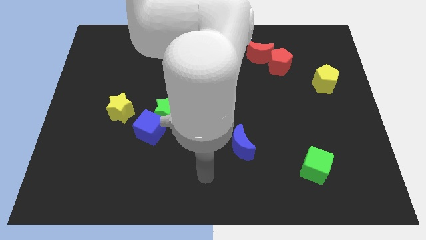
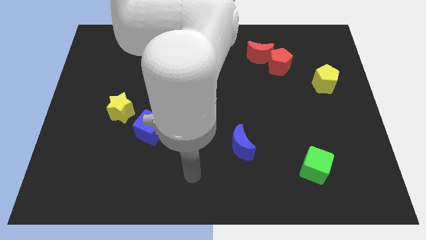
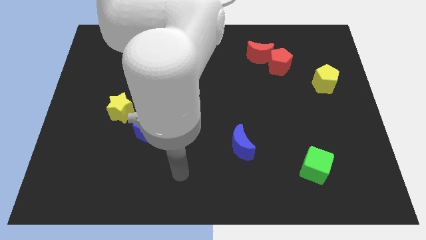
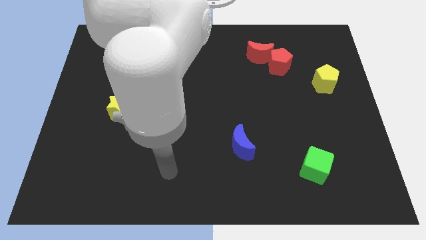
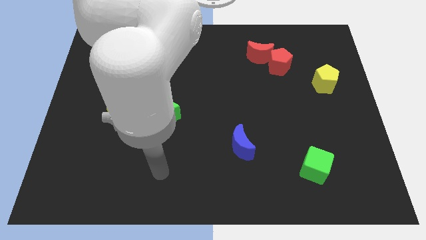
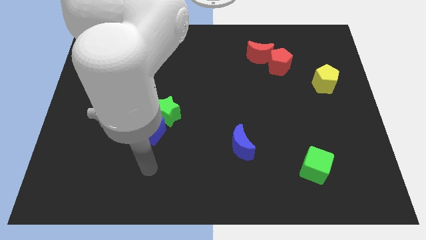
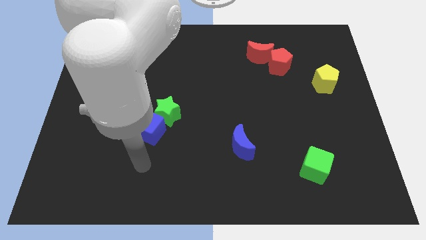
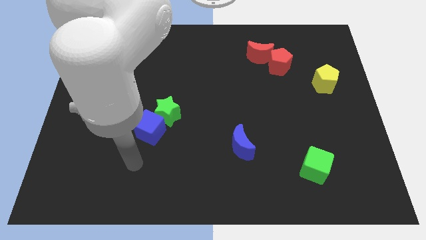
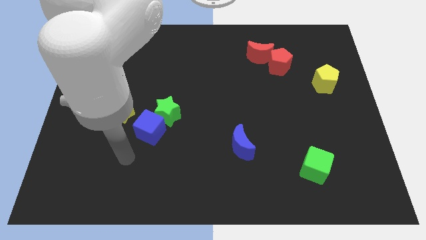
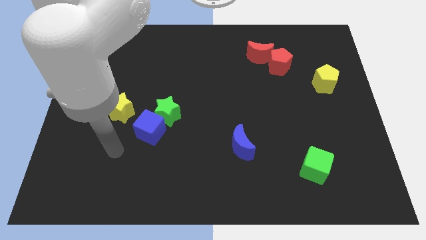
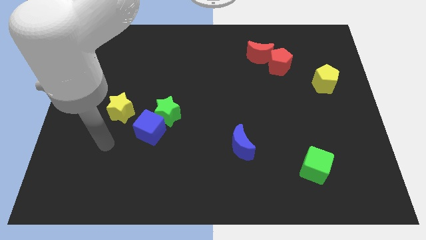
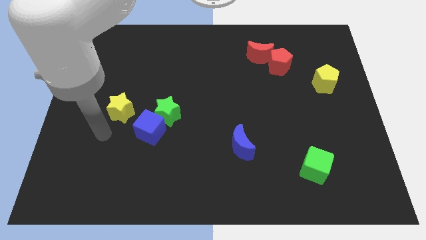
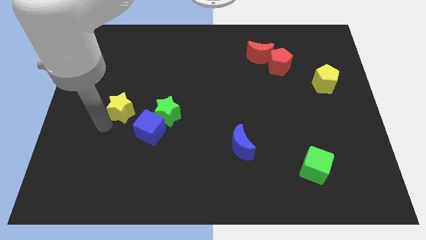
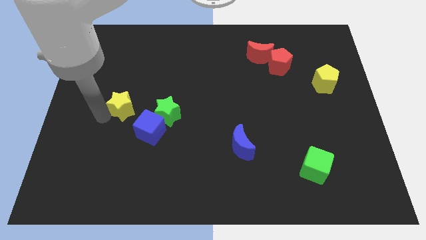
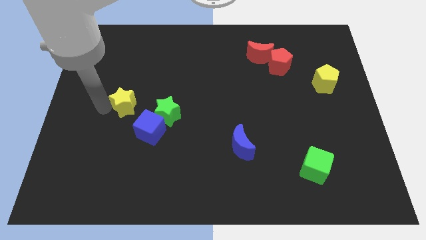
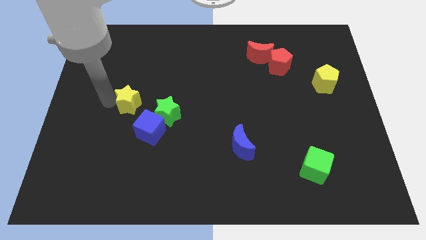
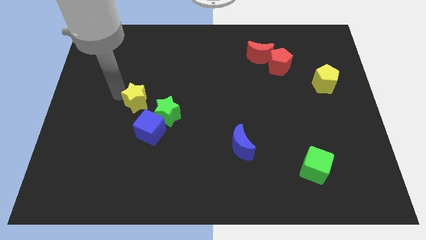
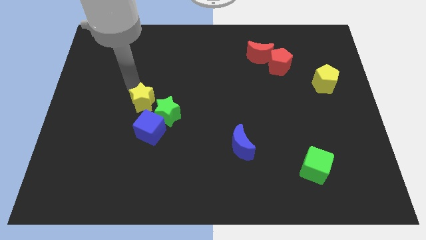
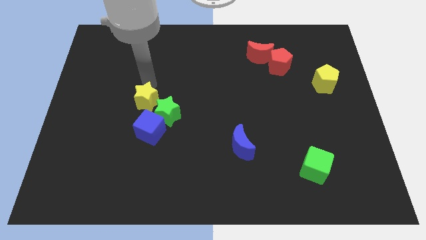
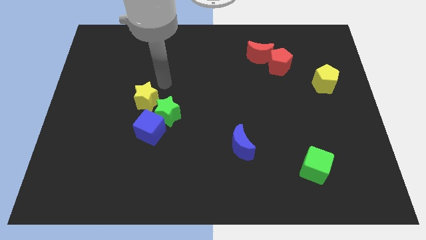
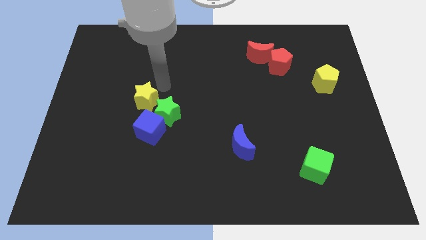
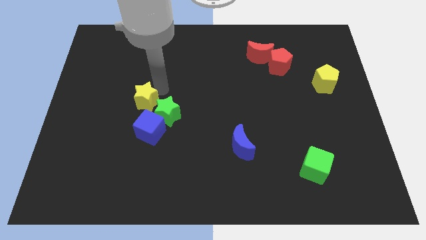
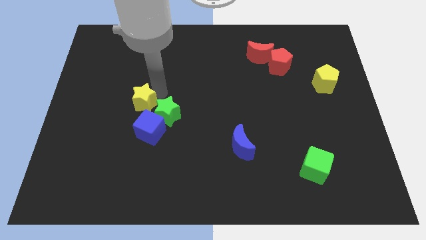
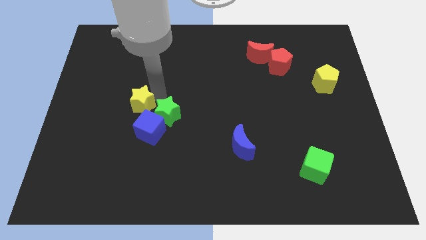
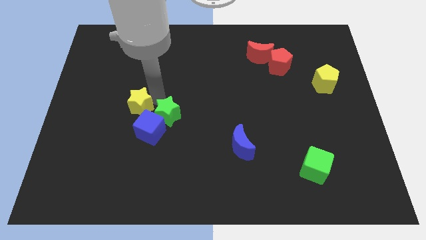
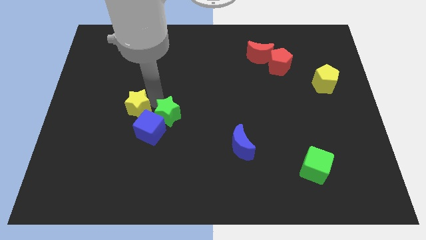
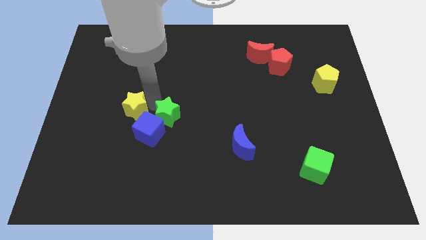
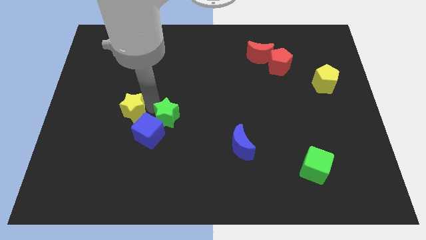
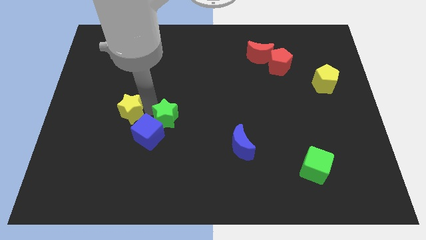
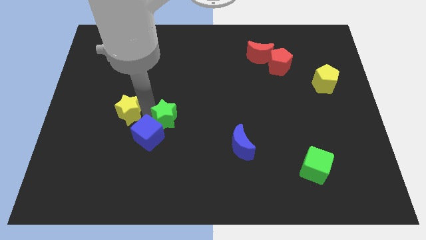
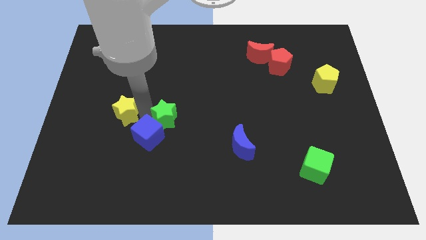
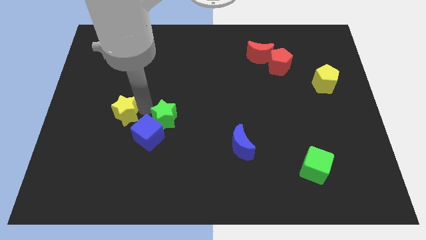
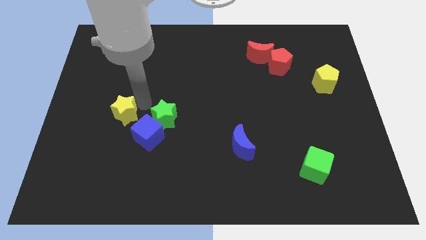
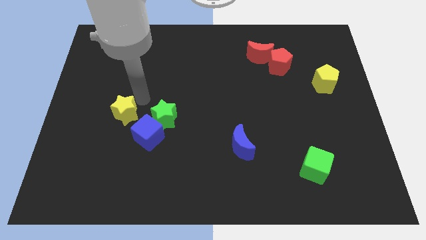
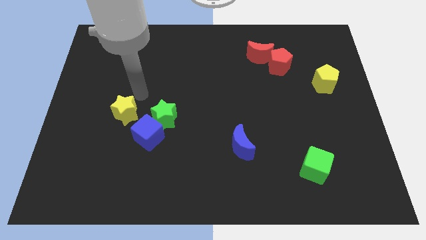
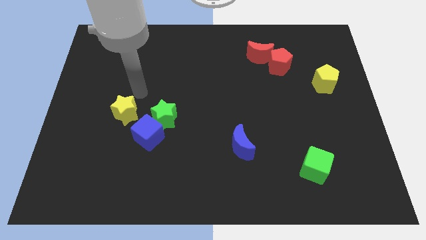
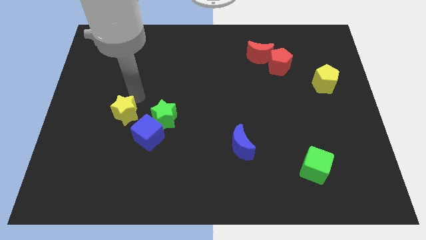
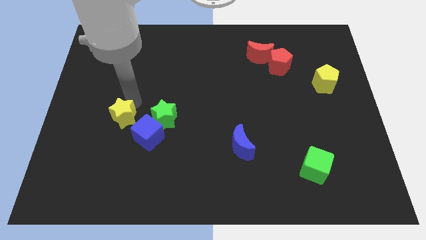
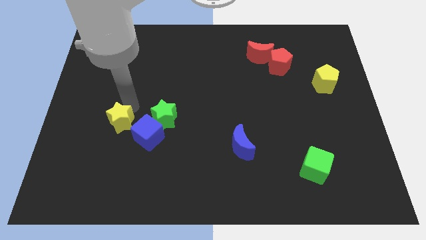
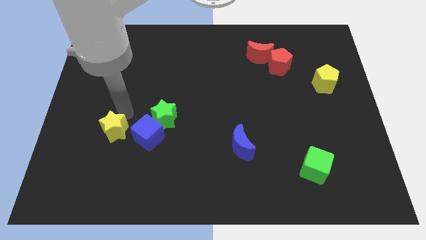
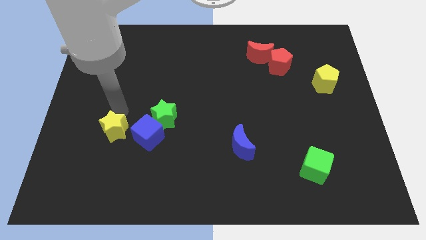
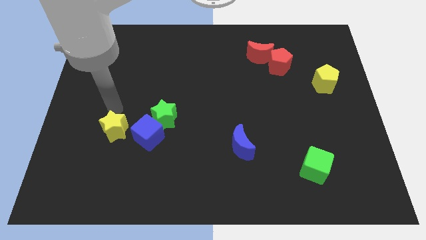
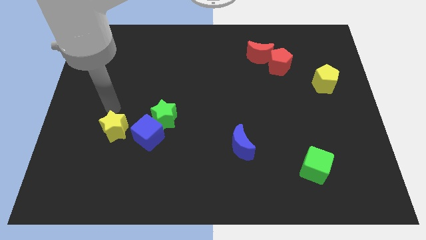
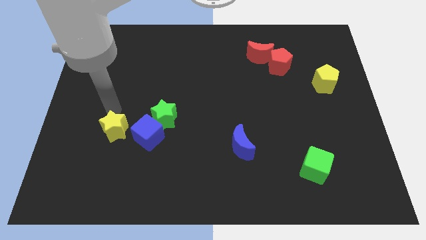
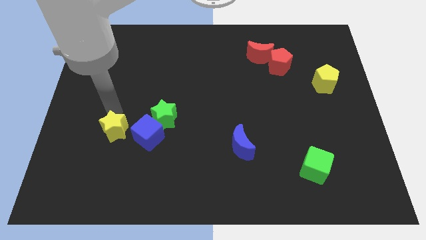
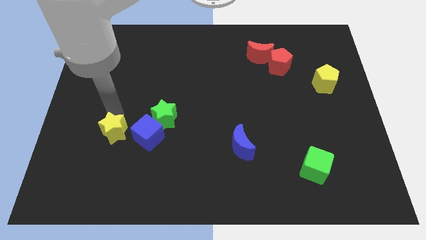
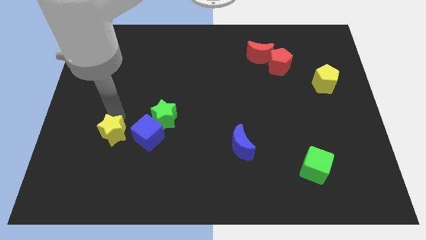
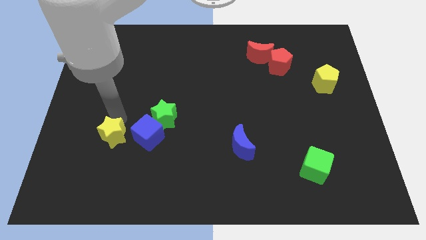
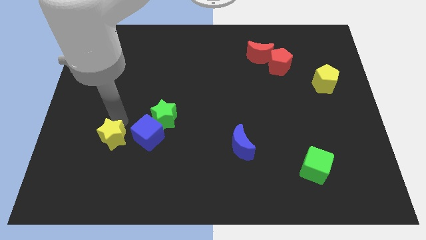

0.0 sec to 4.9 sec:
push the yellow star to the bottom left of the blue cube

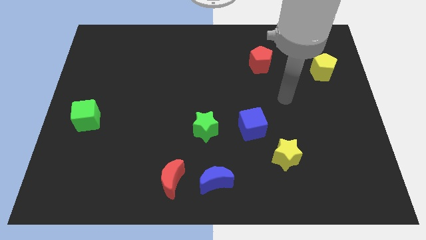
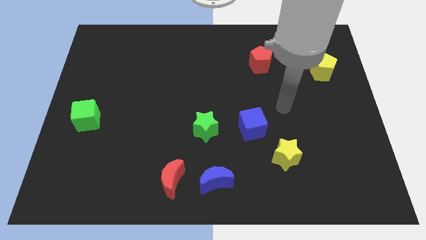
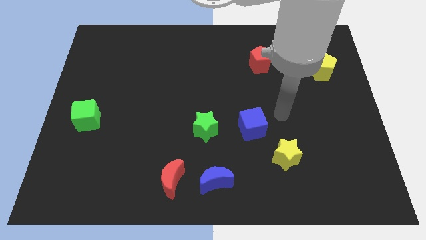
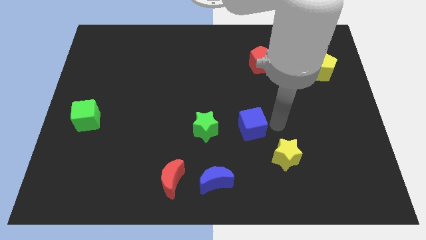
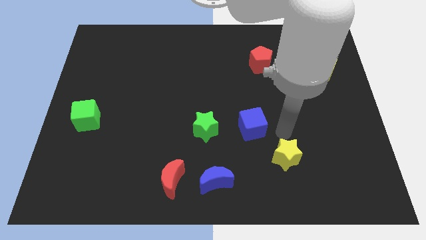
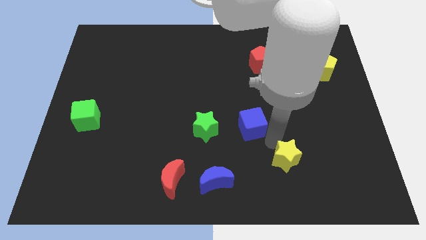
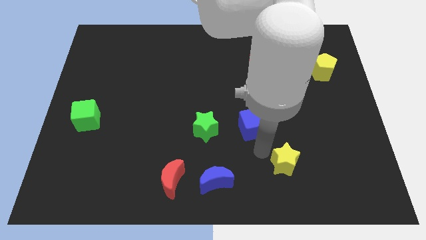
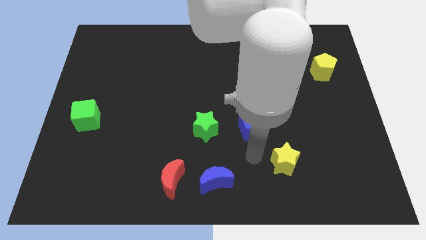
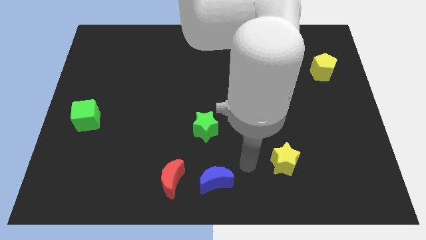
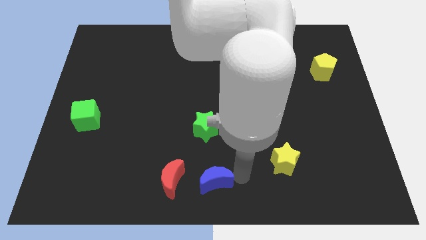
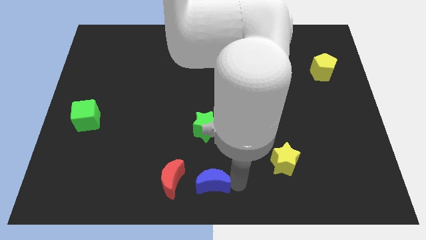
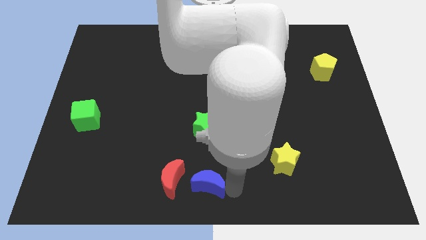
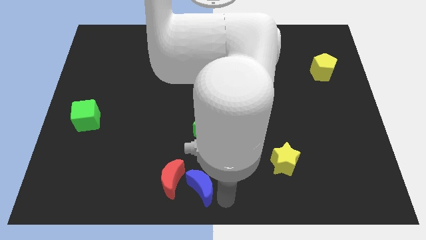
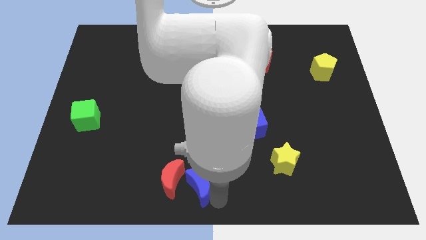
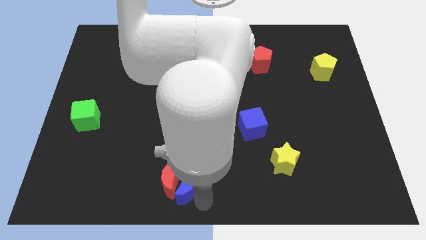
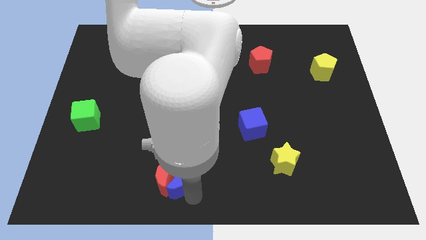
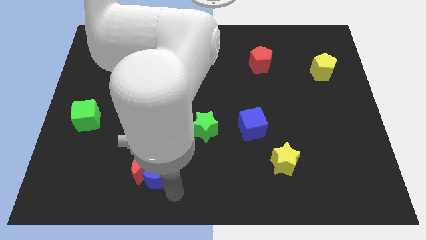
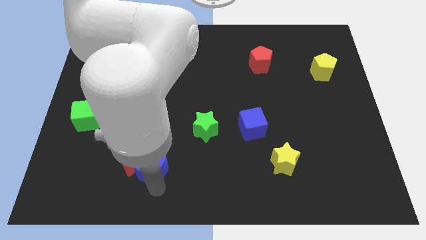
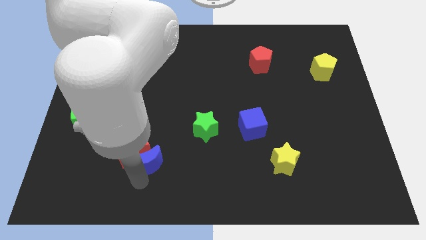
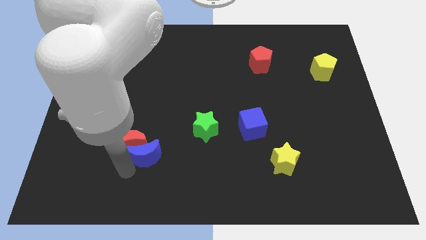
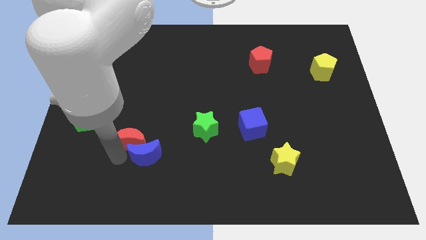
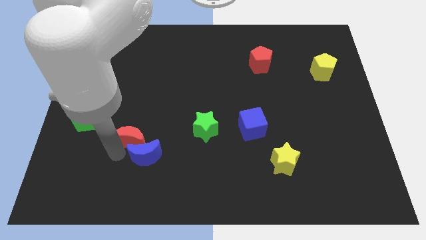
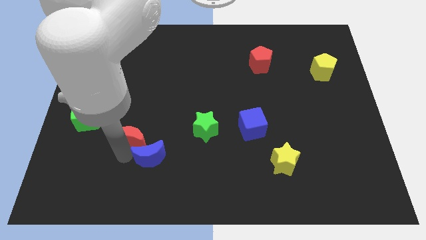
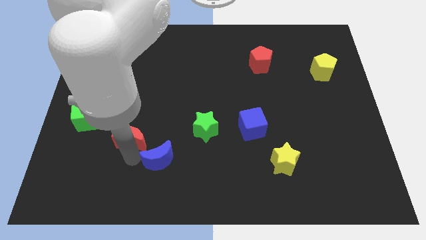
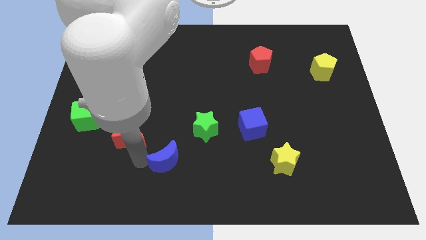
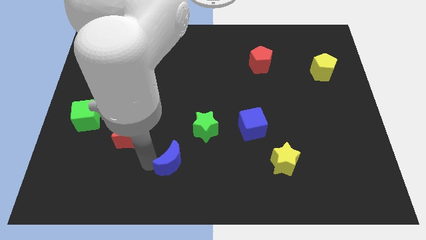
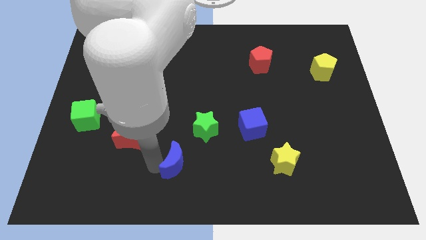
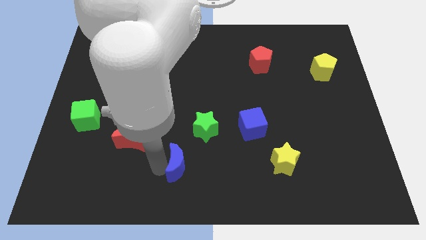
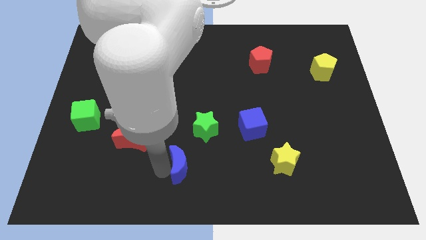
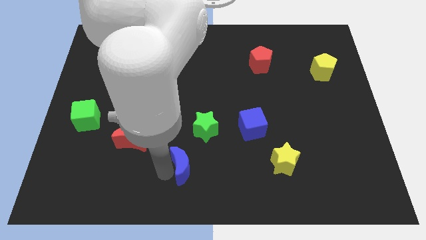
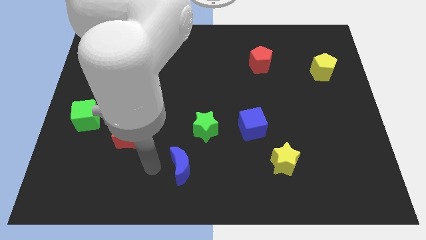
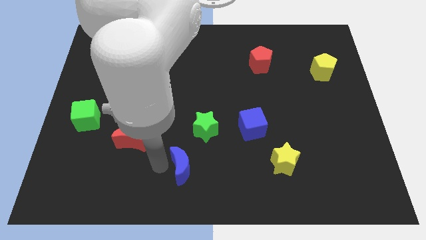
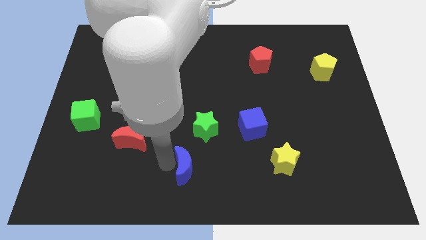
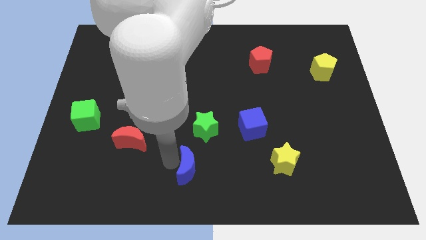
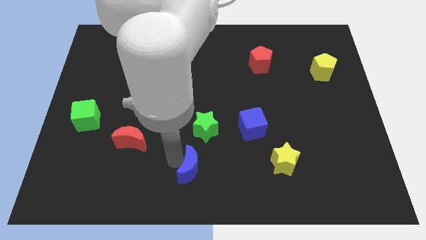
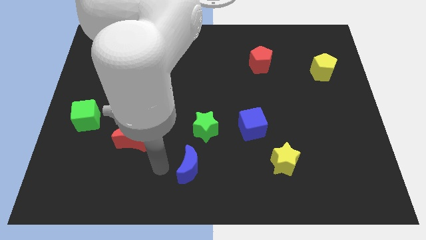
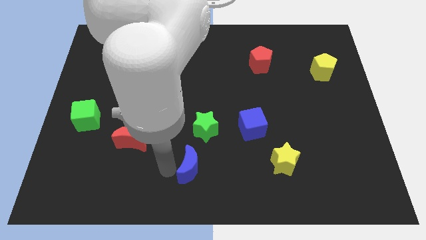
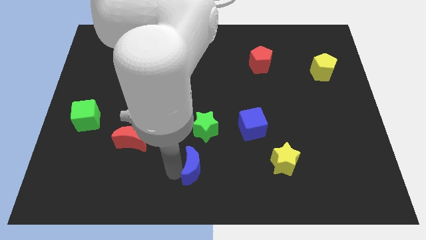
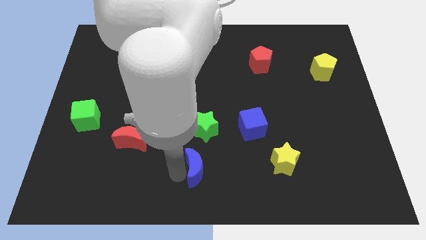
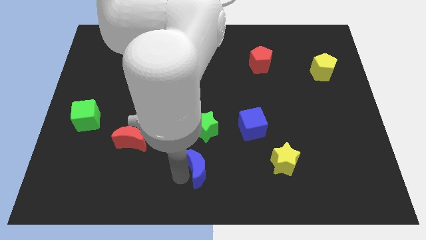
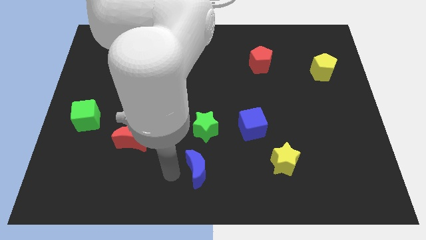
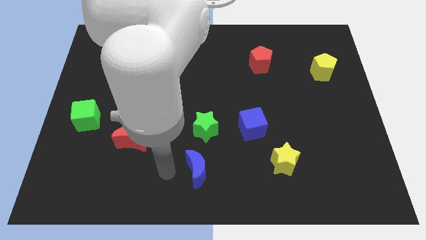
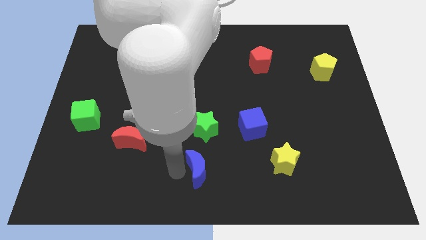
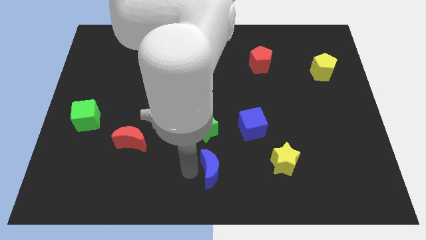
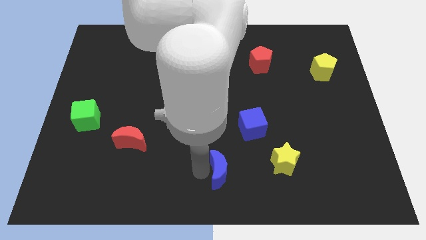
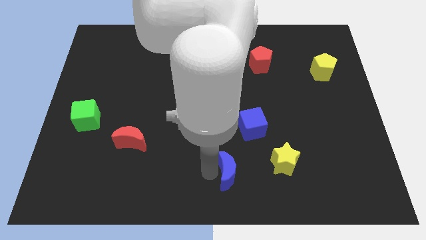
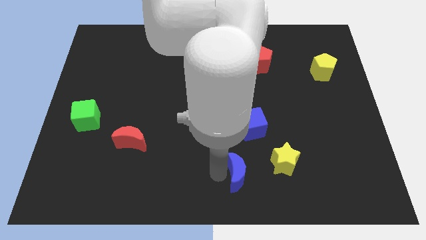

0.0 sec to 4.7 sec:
push the blue moon to the bottom of the blue cube
